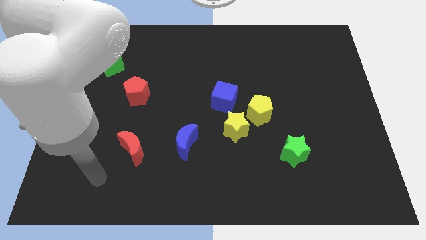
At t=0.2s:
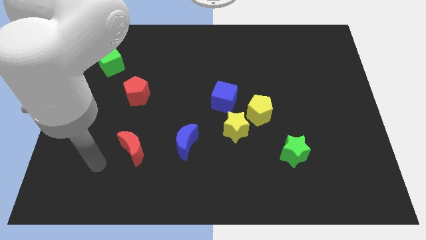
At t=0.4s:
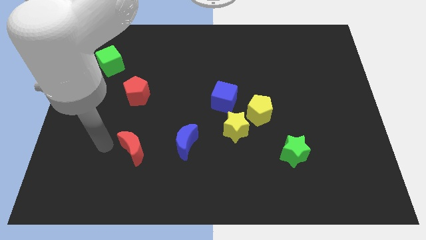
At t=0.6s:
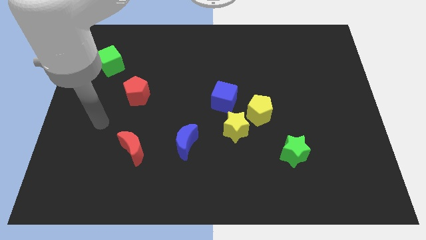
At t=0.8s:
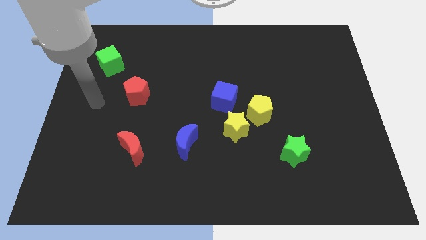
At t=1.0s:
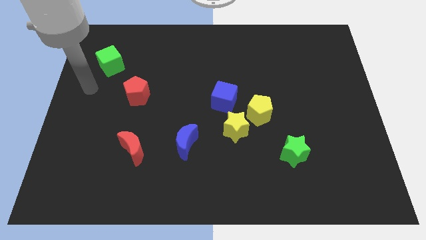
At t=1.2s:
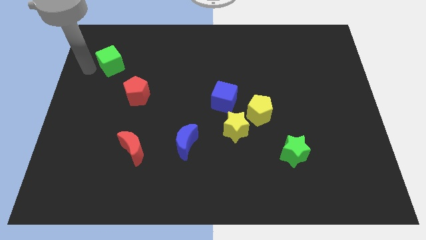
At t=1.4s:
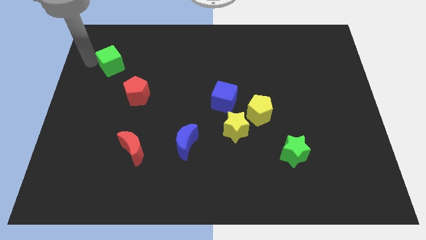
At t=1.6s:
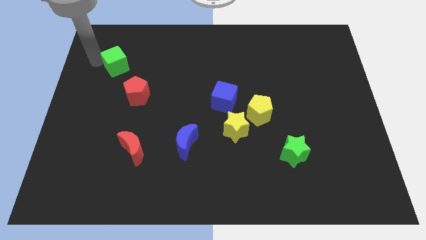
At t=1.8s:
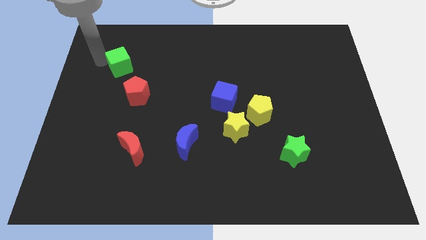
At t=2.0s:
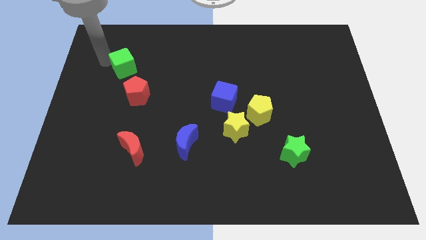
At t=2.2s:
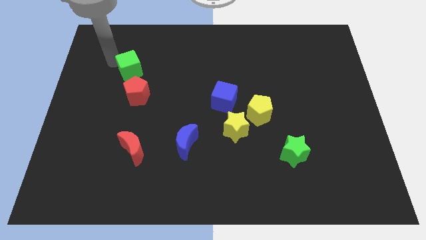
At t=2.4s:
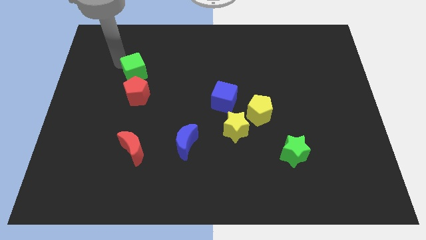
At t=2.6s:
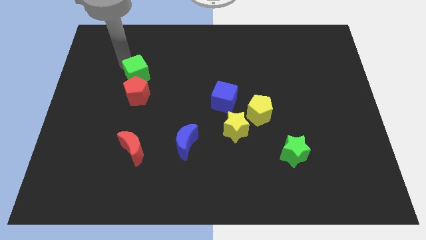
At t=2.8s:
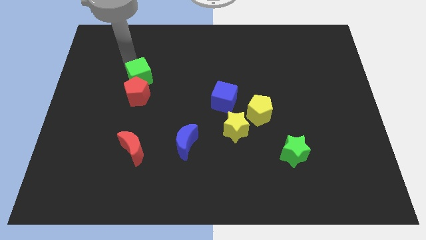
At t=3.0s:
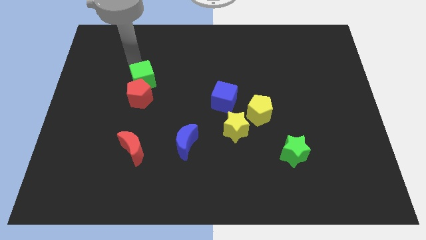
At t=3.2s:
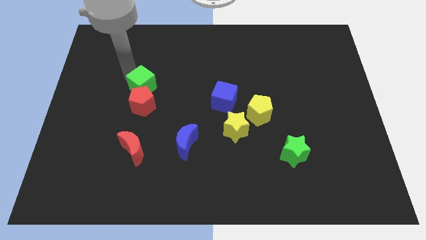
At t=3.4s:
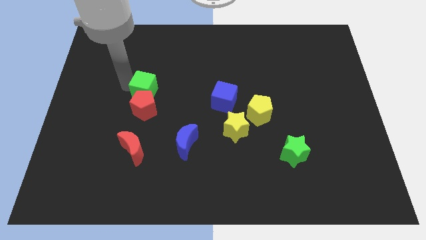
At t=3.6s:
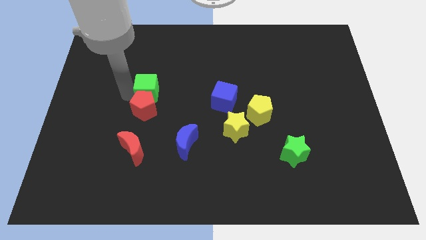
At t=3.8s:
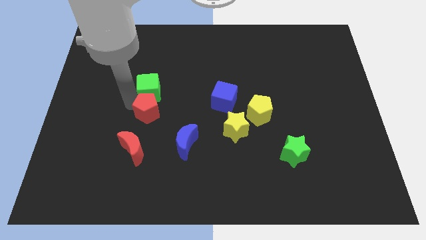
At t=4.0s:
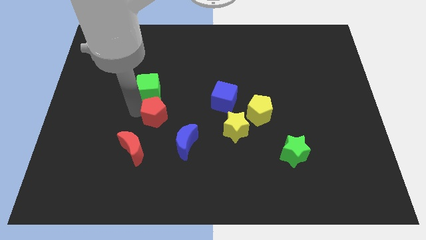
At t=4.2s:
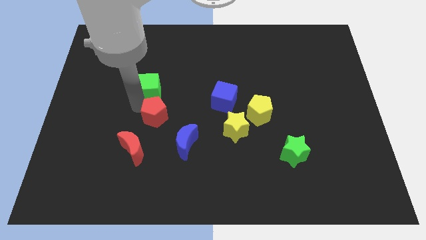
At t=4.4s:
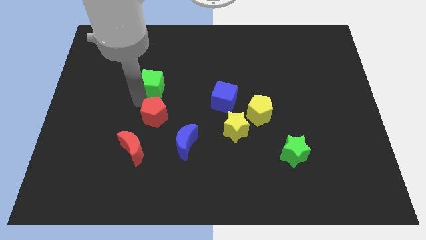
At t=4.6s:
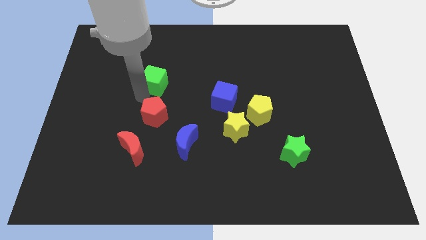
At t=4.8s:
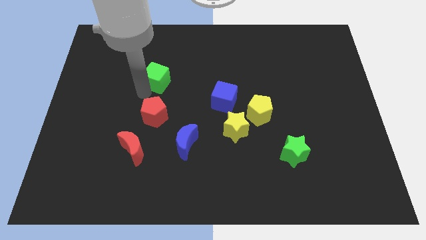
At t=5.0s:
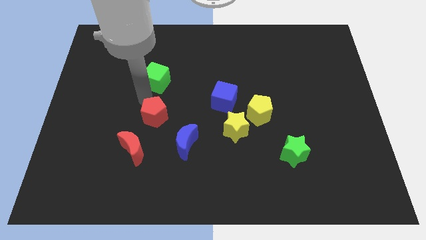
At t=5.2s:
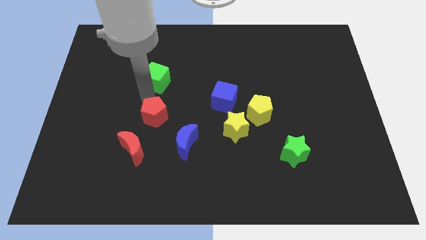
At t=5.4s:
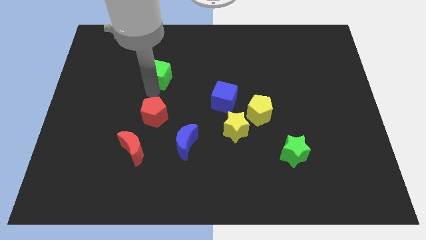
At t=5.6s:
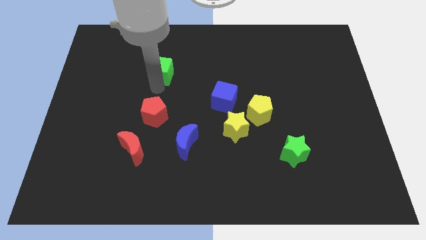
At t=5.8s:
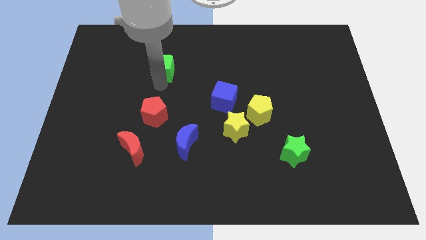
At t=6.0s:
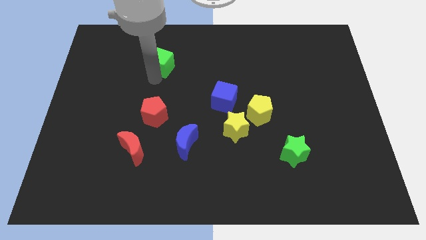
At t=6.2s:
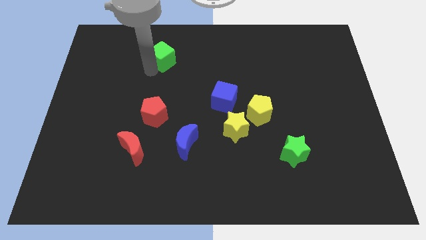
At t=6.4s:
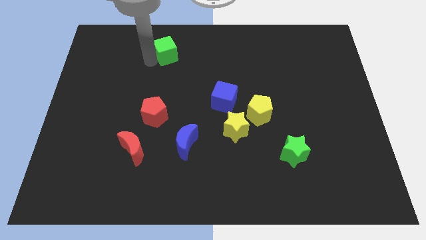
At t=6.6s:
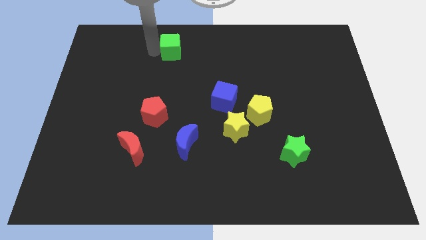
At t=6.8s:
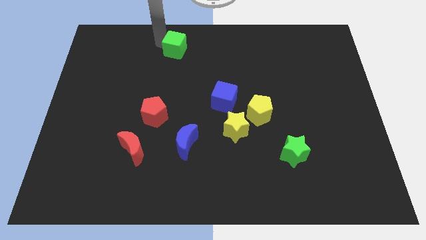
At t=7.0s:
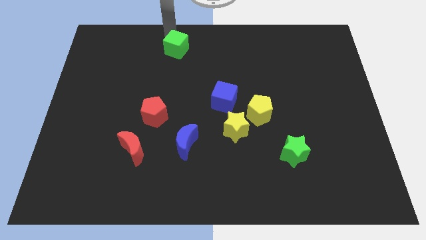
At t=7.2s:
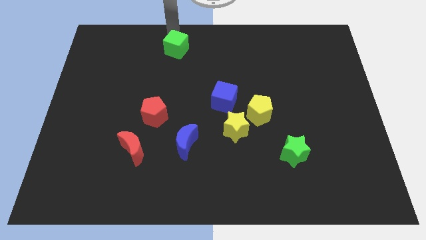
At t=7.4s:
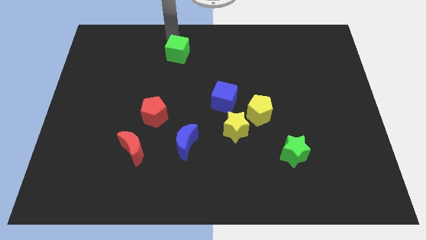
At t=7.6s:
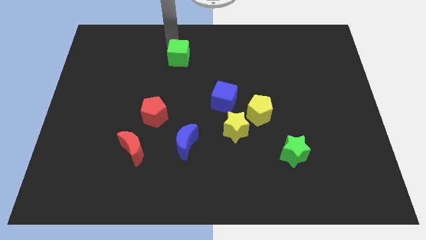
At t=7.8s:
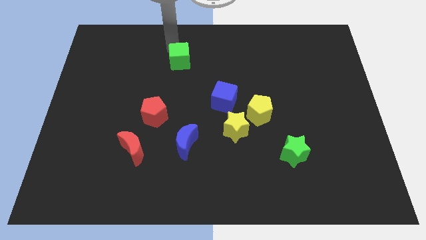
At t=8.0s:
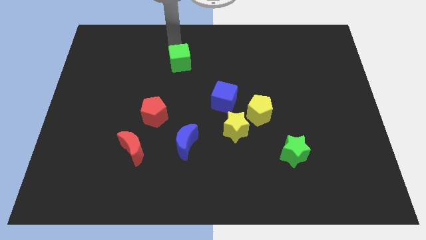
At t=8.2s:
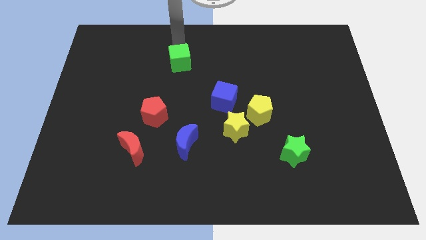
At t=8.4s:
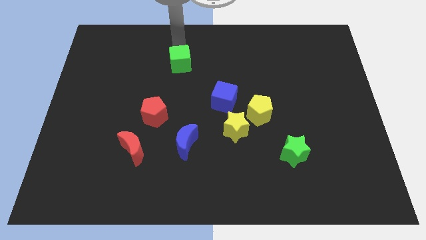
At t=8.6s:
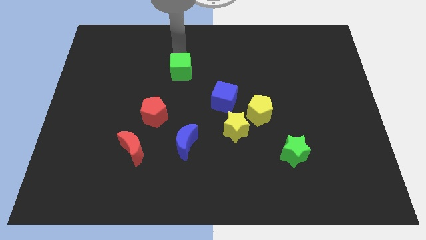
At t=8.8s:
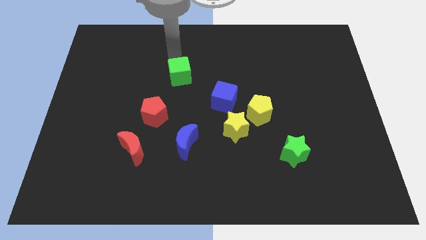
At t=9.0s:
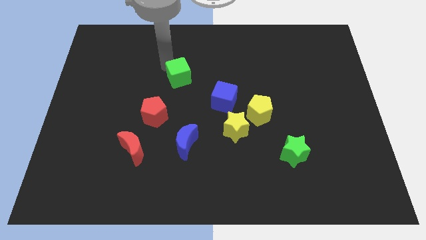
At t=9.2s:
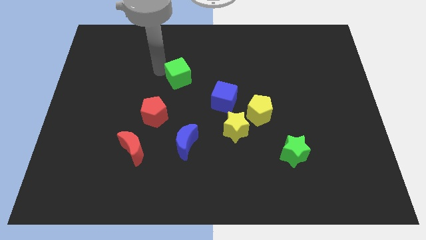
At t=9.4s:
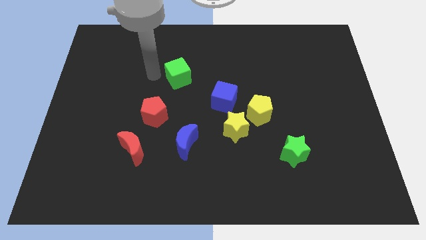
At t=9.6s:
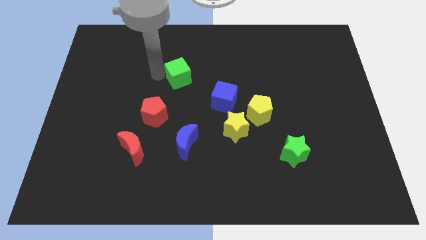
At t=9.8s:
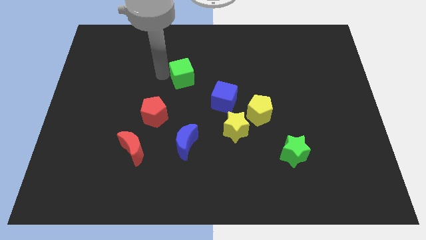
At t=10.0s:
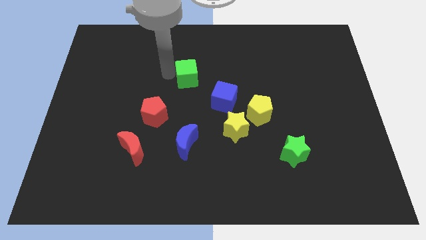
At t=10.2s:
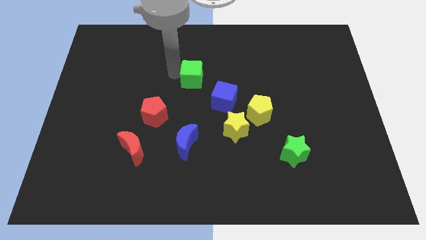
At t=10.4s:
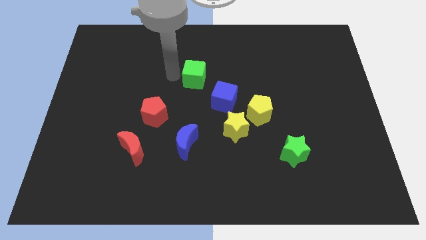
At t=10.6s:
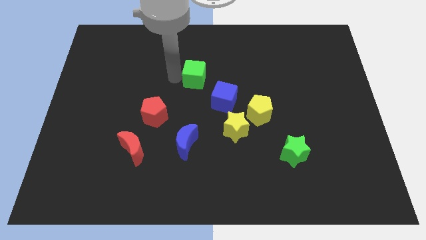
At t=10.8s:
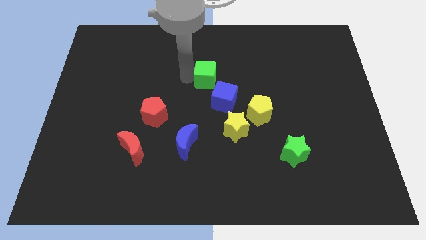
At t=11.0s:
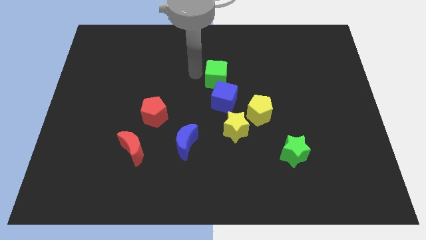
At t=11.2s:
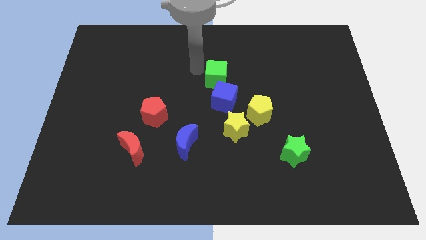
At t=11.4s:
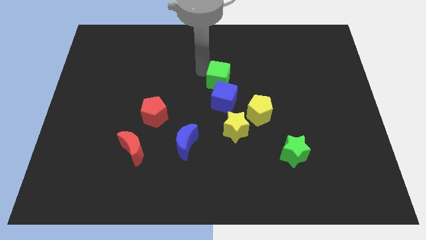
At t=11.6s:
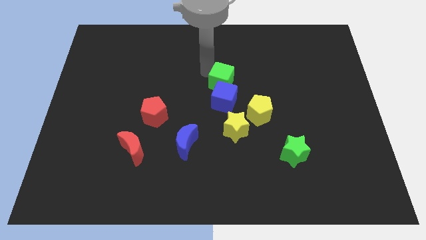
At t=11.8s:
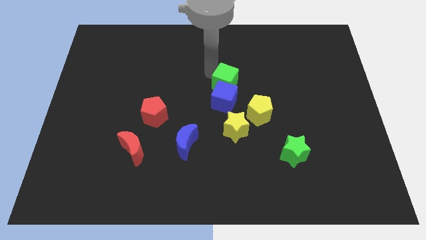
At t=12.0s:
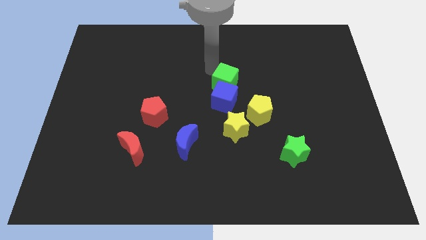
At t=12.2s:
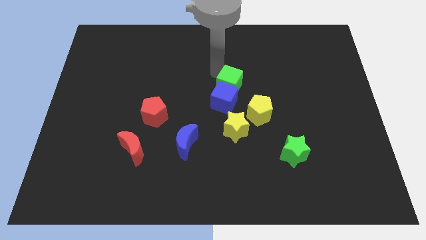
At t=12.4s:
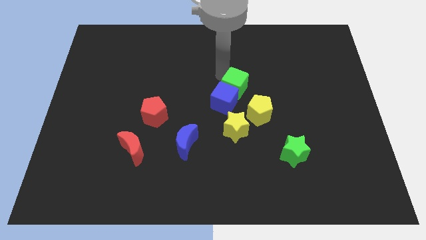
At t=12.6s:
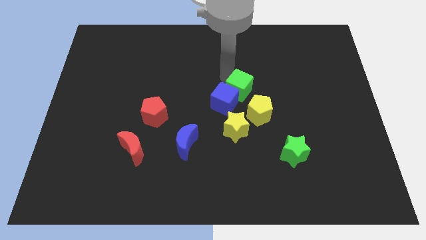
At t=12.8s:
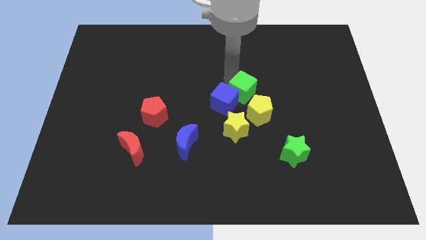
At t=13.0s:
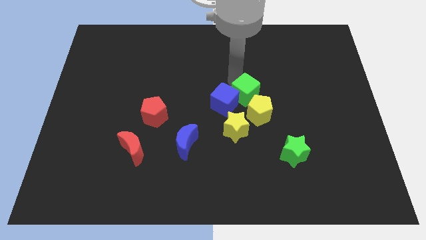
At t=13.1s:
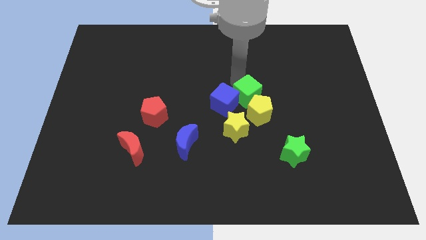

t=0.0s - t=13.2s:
move the green cube to the yellow pentagon

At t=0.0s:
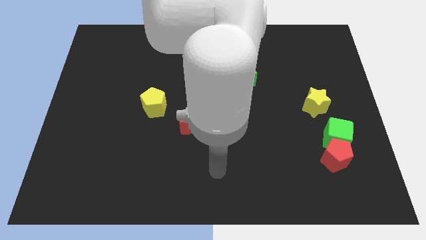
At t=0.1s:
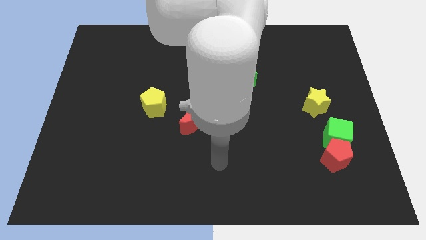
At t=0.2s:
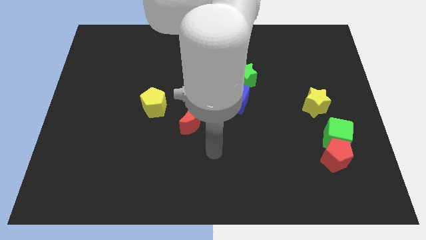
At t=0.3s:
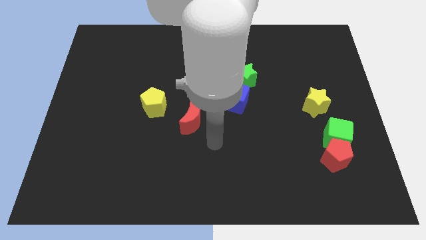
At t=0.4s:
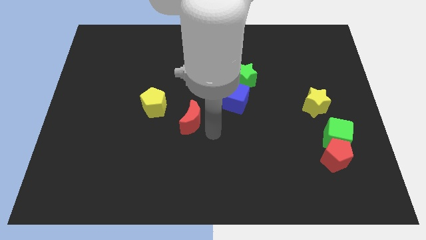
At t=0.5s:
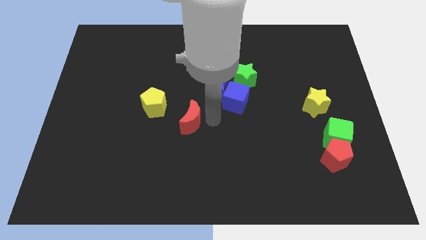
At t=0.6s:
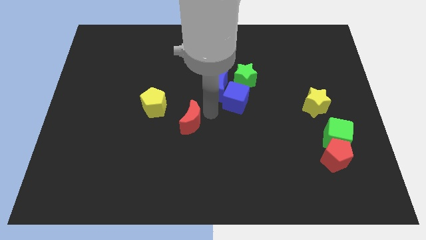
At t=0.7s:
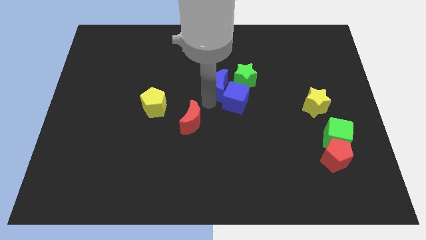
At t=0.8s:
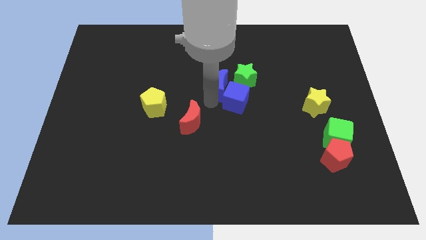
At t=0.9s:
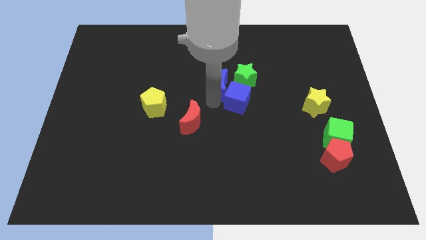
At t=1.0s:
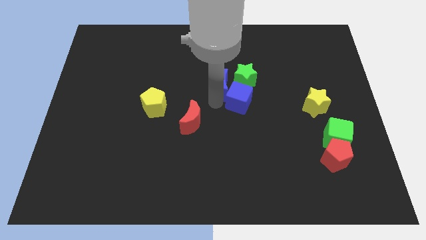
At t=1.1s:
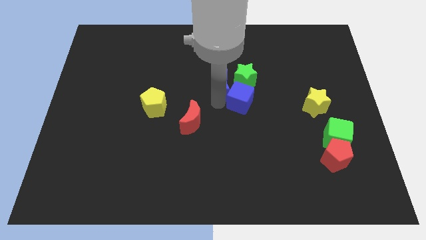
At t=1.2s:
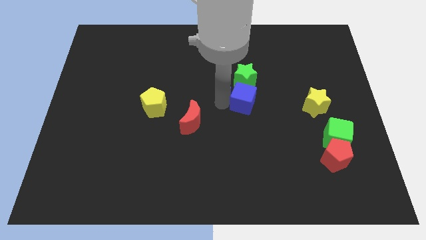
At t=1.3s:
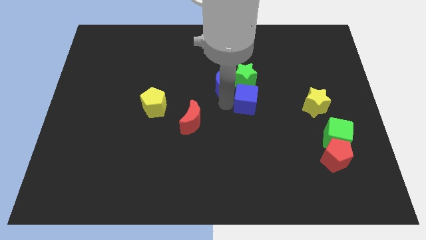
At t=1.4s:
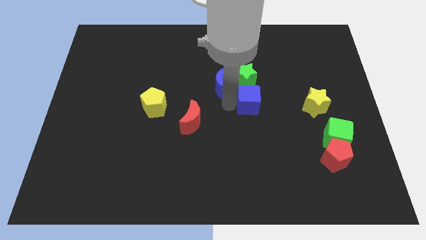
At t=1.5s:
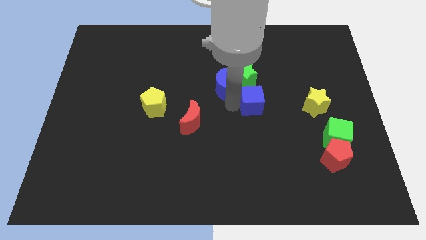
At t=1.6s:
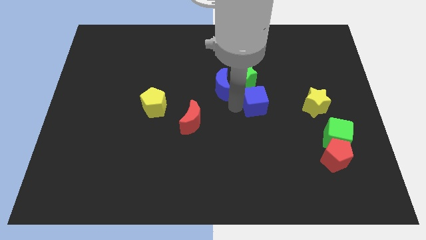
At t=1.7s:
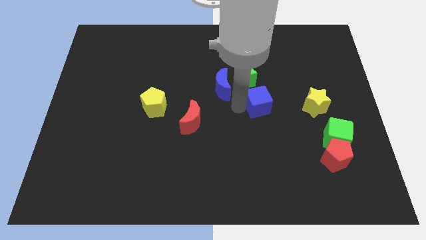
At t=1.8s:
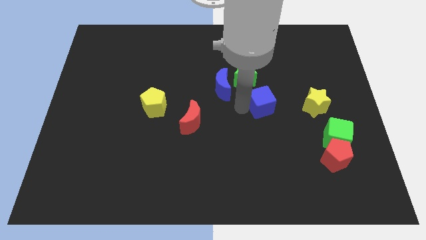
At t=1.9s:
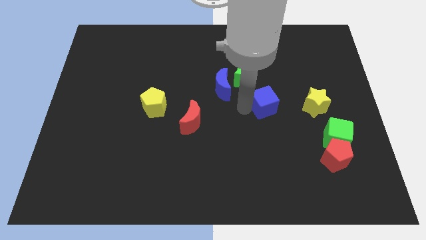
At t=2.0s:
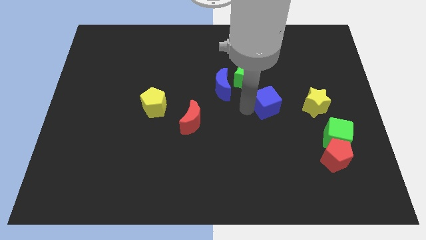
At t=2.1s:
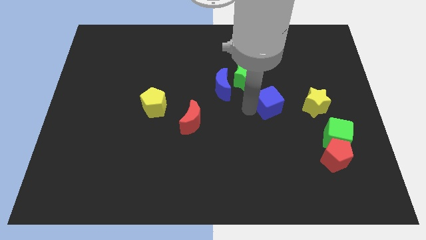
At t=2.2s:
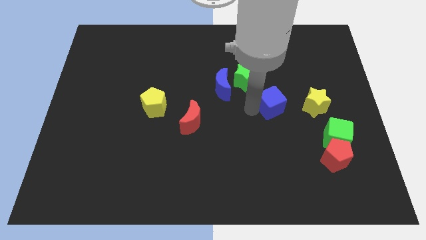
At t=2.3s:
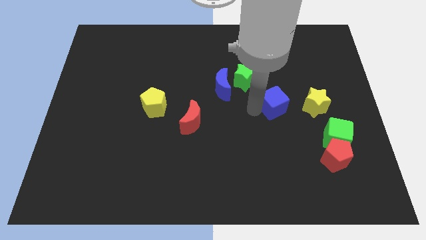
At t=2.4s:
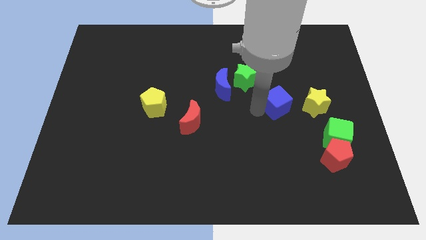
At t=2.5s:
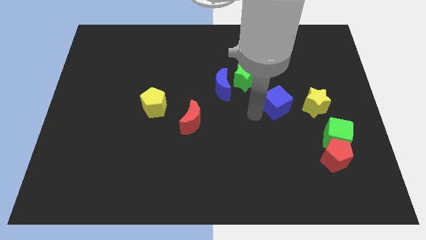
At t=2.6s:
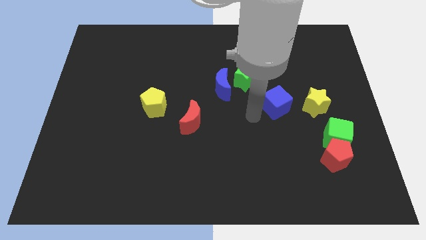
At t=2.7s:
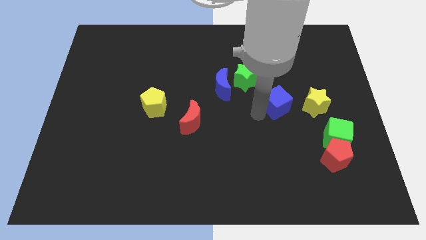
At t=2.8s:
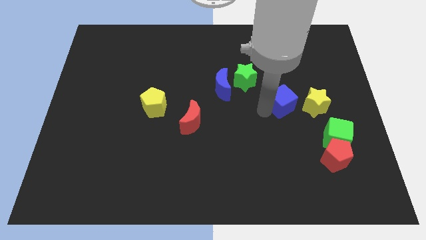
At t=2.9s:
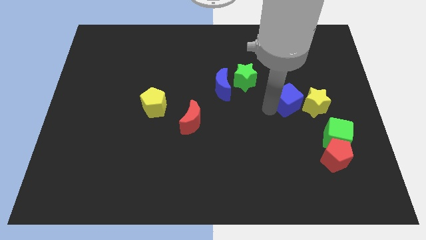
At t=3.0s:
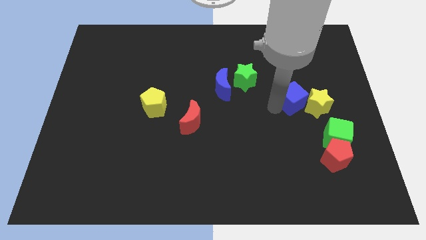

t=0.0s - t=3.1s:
push the blue cube next to the yellow star
